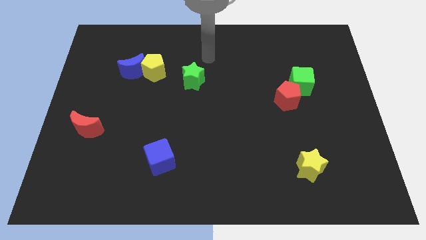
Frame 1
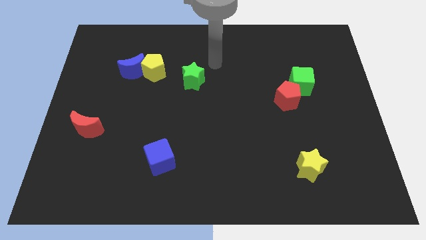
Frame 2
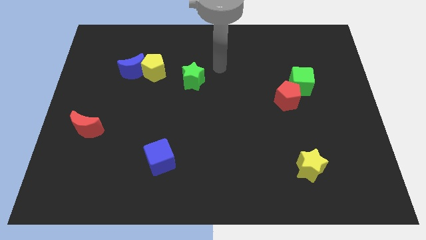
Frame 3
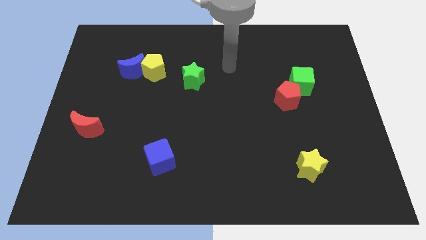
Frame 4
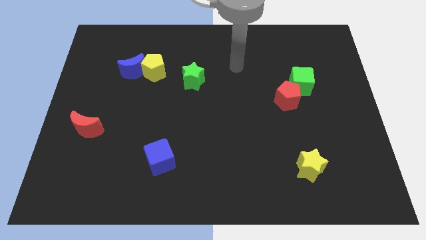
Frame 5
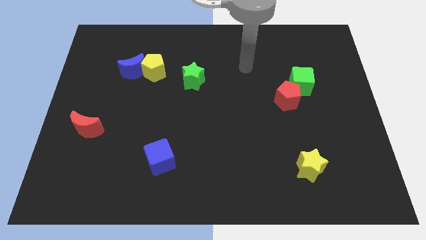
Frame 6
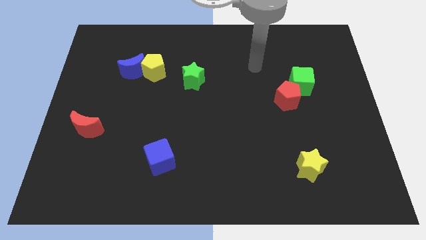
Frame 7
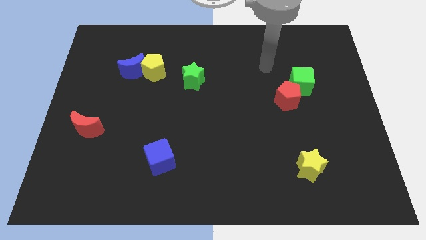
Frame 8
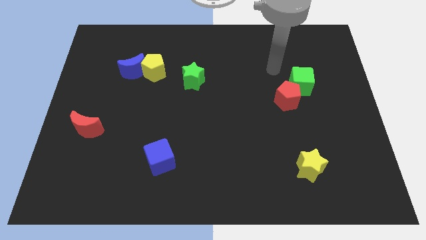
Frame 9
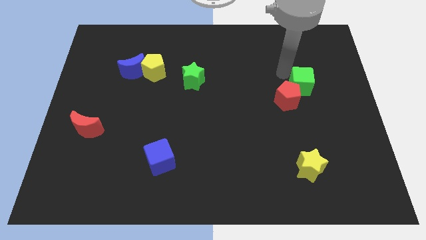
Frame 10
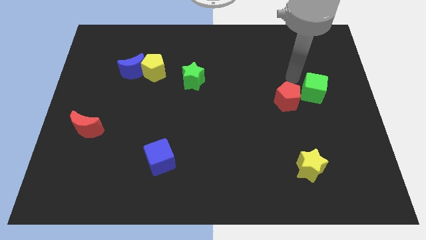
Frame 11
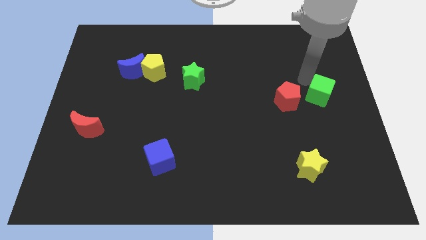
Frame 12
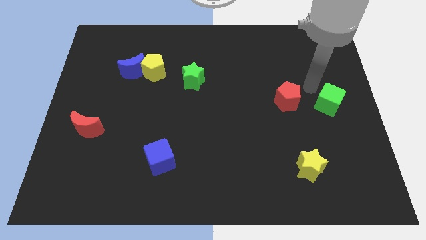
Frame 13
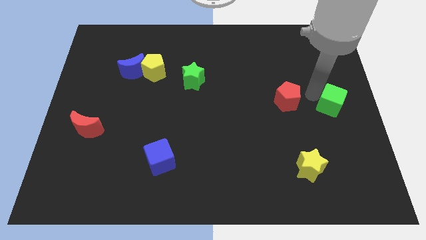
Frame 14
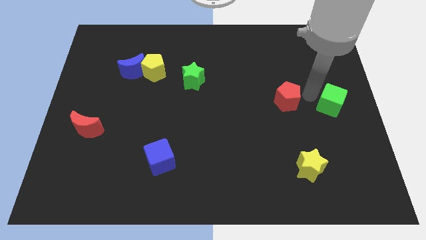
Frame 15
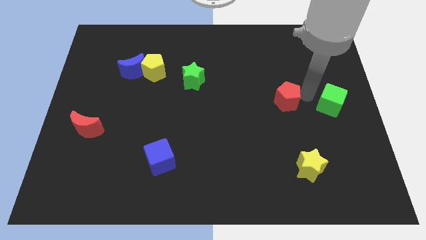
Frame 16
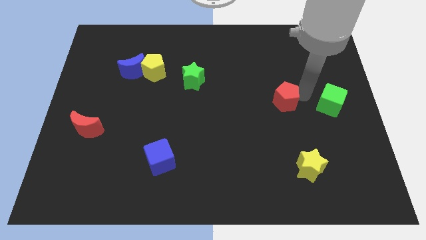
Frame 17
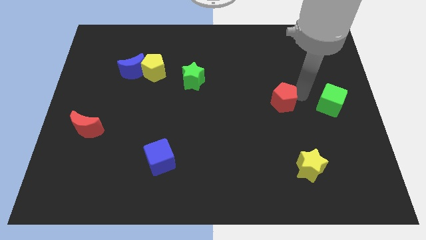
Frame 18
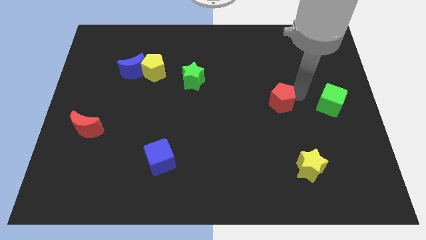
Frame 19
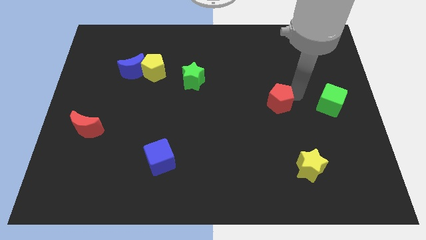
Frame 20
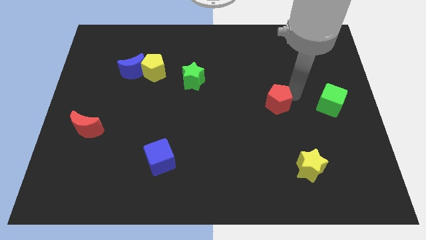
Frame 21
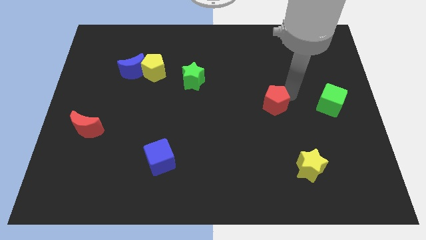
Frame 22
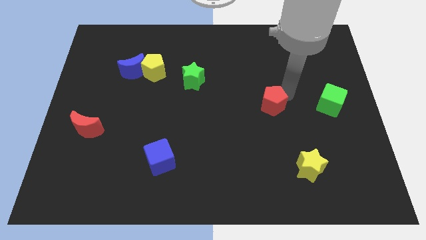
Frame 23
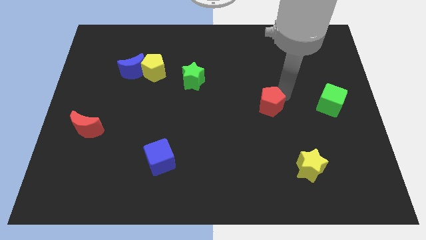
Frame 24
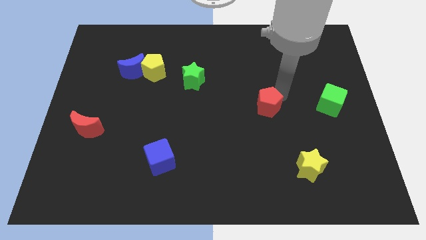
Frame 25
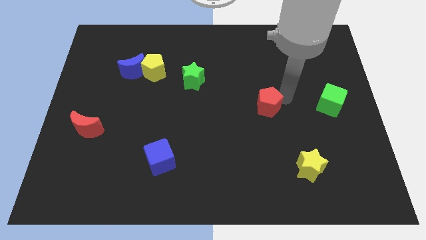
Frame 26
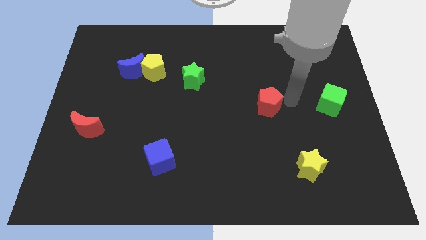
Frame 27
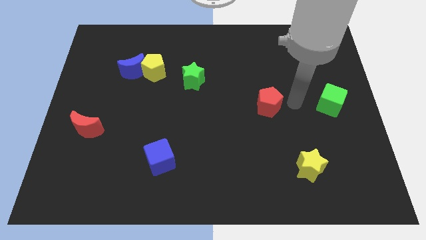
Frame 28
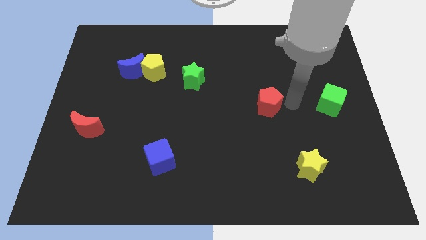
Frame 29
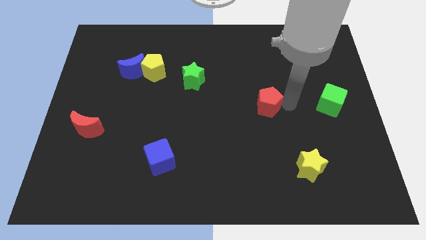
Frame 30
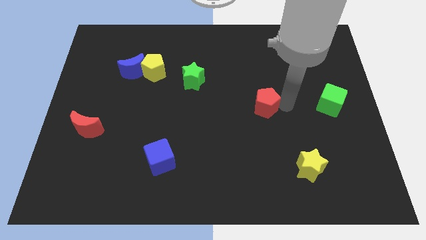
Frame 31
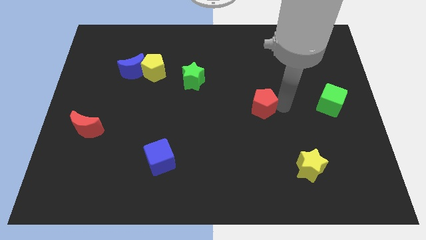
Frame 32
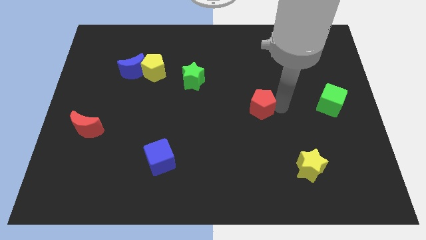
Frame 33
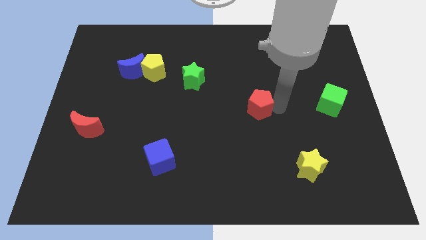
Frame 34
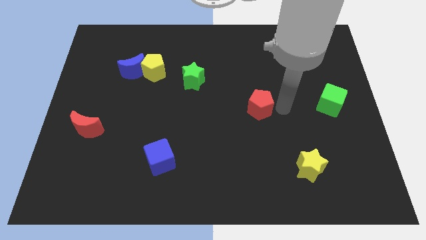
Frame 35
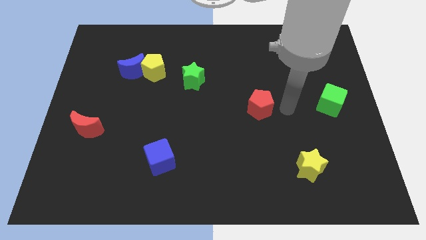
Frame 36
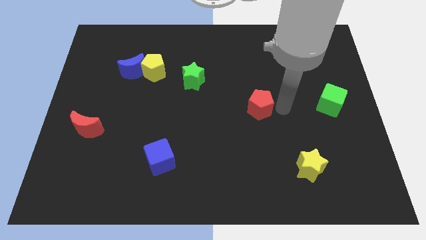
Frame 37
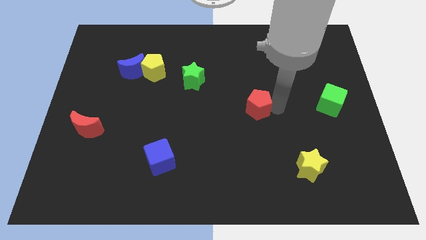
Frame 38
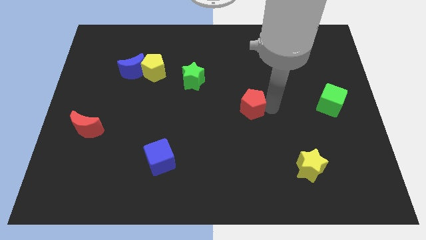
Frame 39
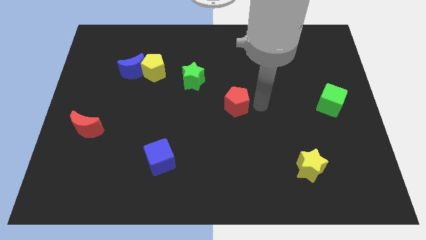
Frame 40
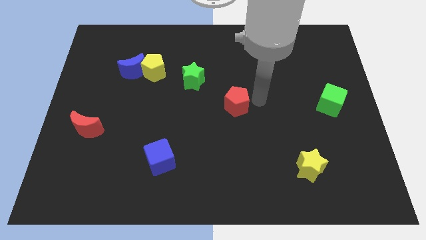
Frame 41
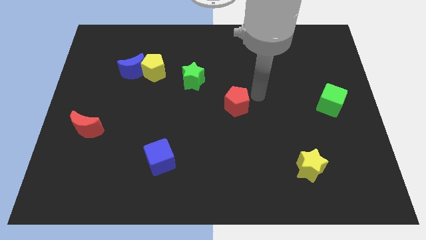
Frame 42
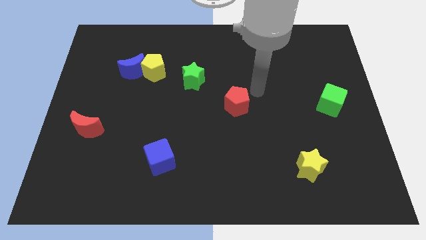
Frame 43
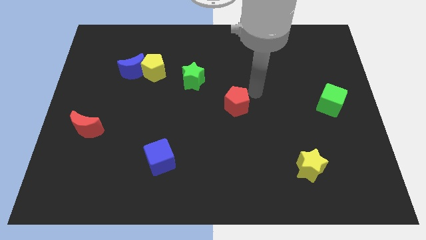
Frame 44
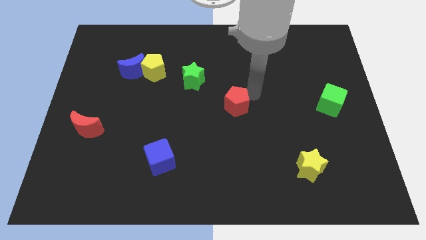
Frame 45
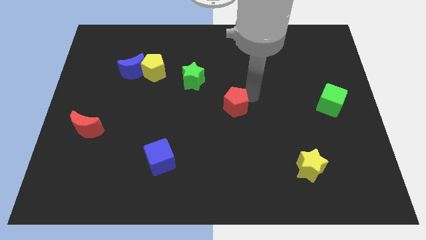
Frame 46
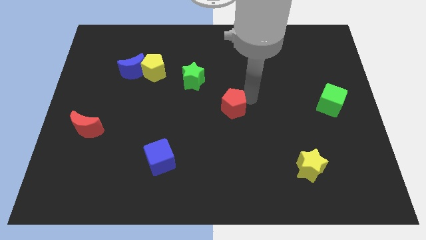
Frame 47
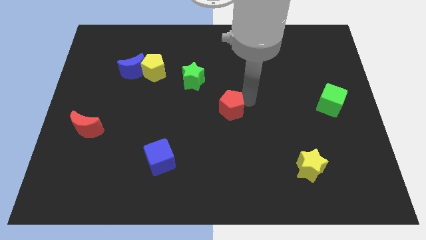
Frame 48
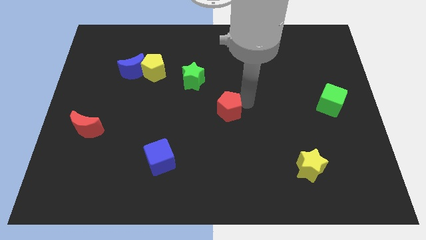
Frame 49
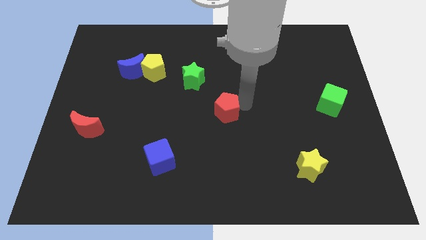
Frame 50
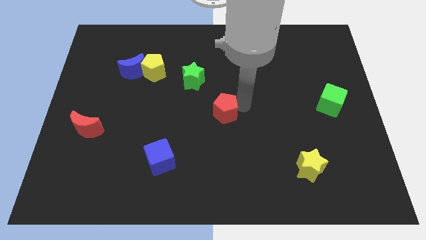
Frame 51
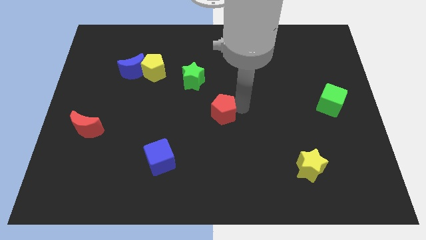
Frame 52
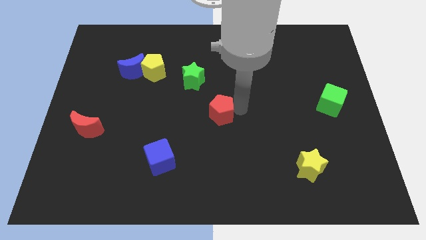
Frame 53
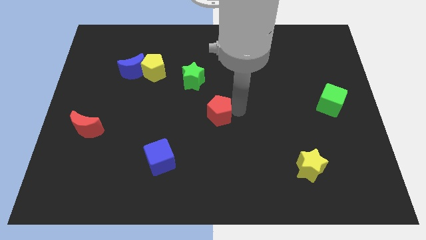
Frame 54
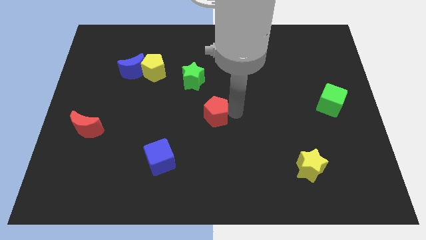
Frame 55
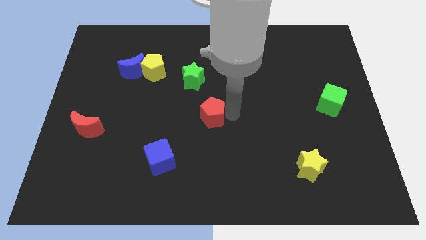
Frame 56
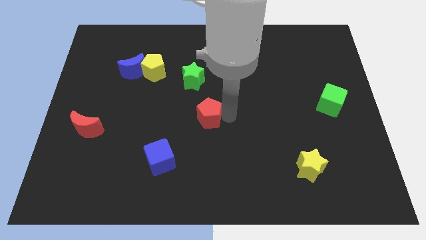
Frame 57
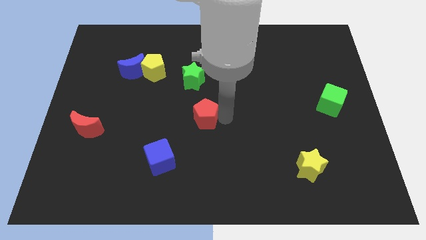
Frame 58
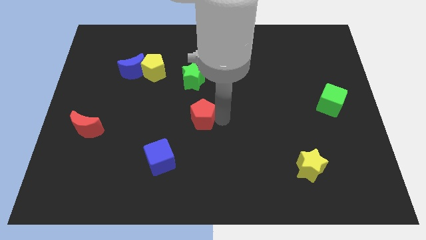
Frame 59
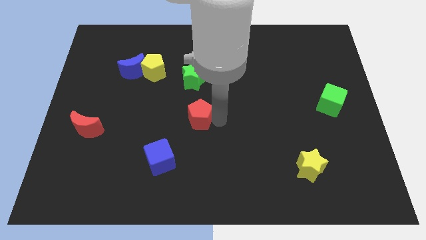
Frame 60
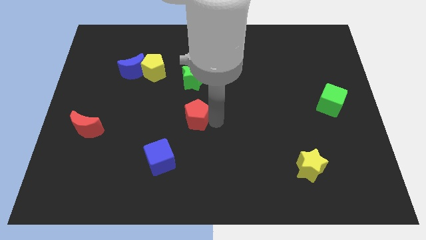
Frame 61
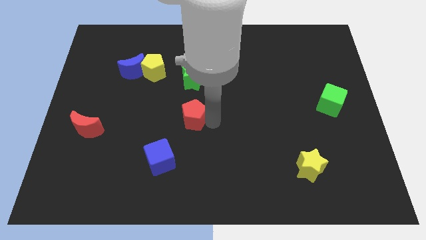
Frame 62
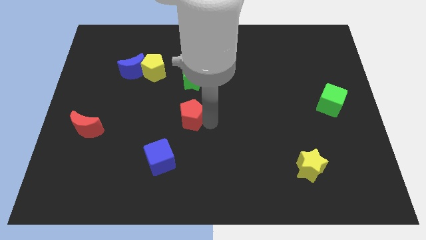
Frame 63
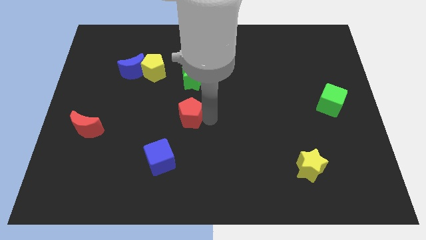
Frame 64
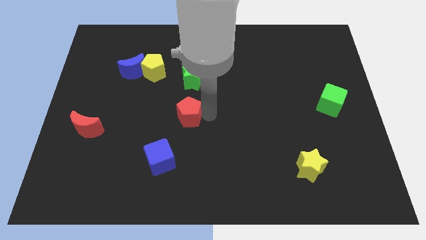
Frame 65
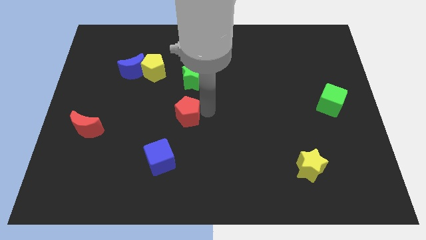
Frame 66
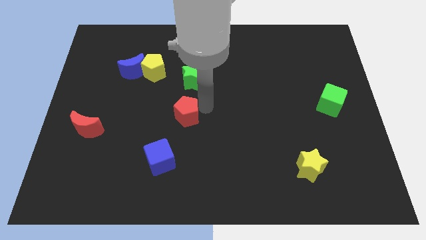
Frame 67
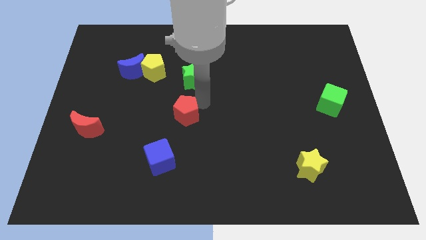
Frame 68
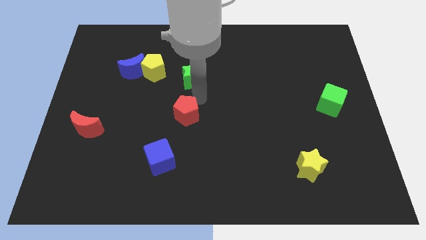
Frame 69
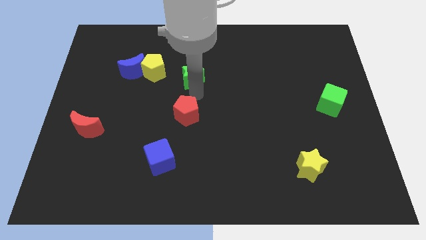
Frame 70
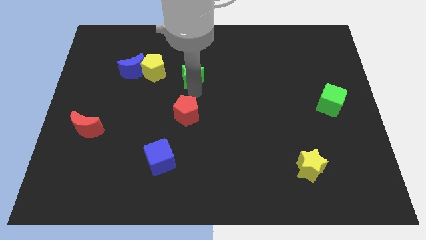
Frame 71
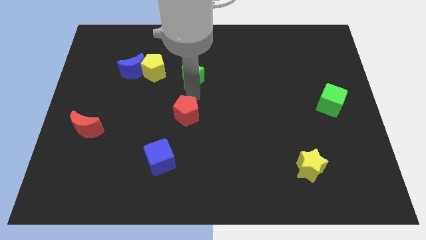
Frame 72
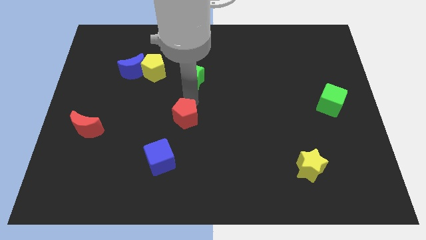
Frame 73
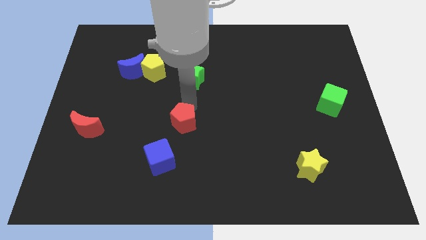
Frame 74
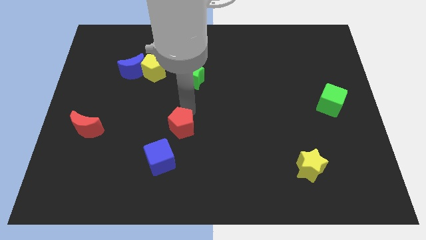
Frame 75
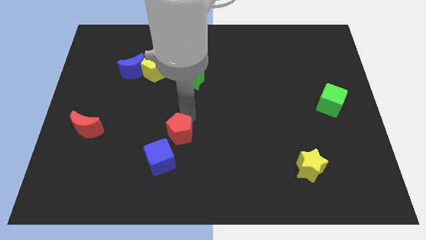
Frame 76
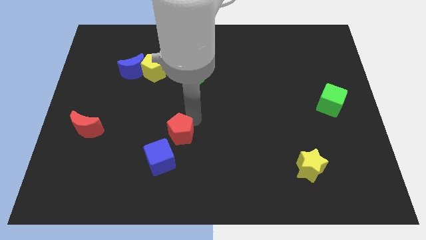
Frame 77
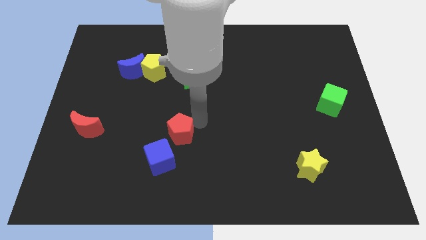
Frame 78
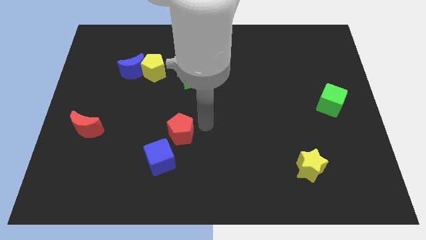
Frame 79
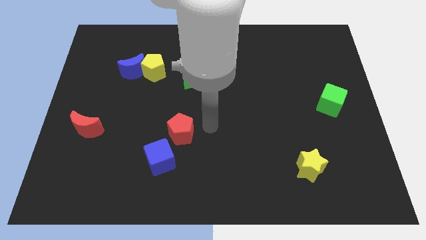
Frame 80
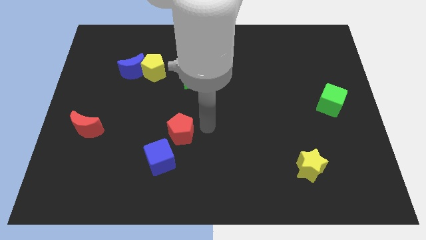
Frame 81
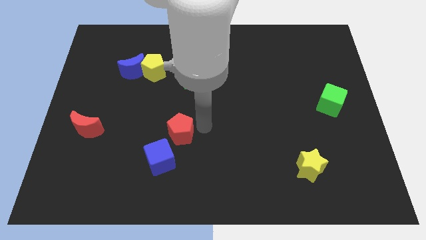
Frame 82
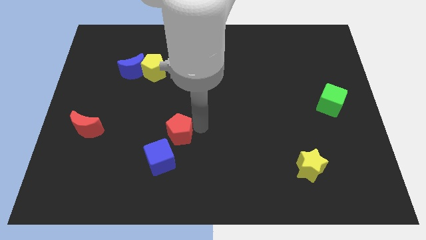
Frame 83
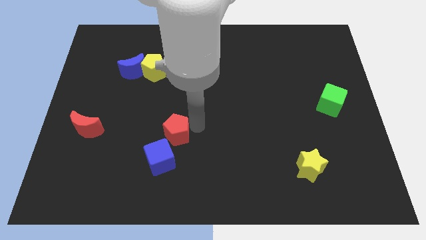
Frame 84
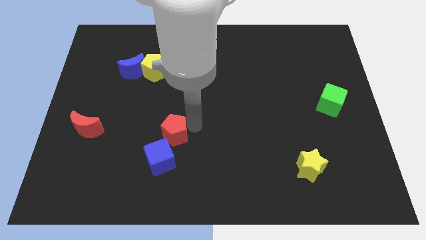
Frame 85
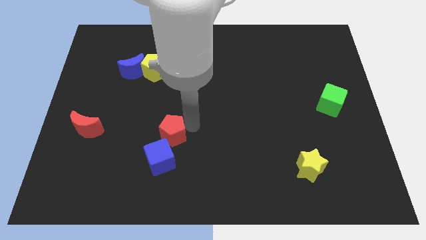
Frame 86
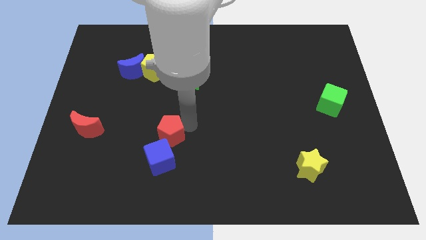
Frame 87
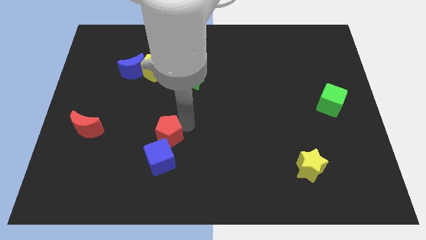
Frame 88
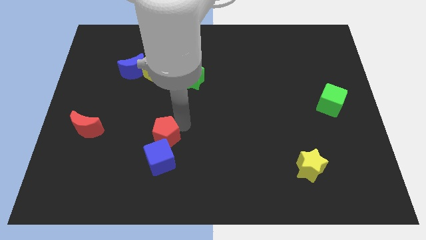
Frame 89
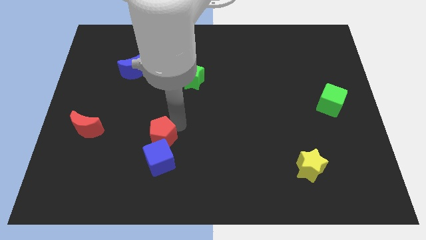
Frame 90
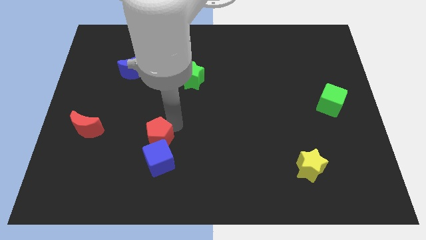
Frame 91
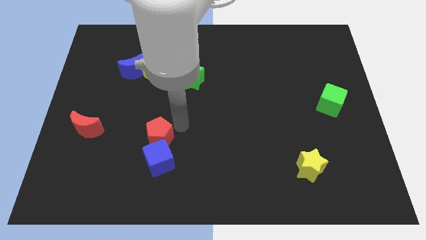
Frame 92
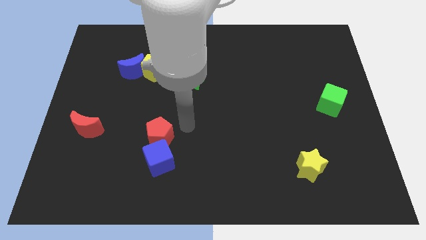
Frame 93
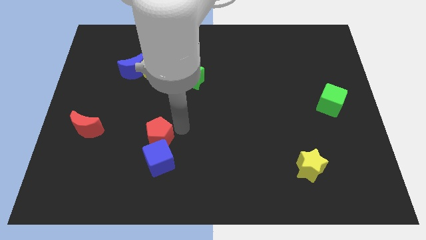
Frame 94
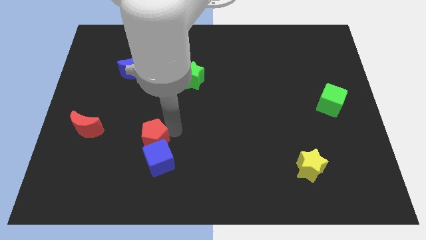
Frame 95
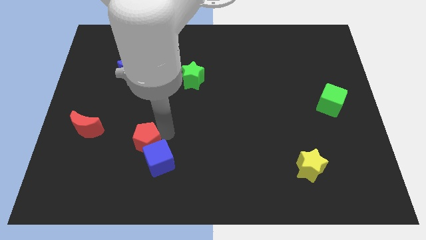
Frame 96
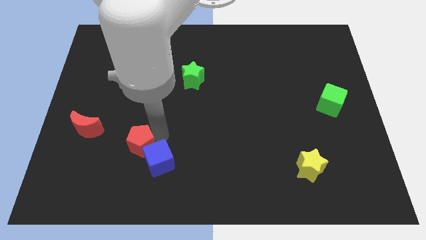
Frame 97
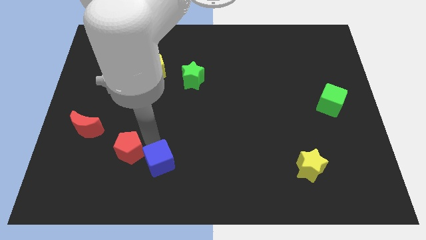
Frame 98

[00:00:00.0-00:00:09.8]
push the red pentagon to the bottom right side of the red moon
